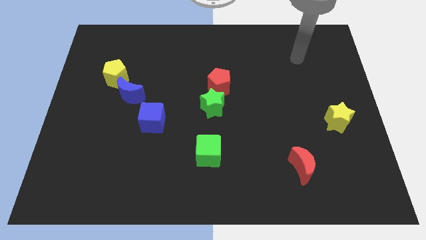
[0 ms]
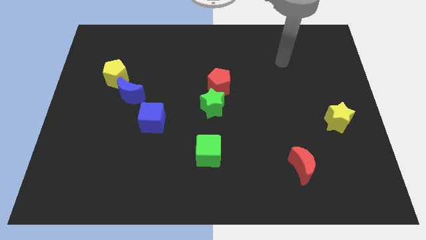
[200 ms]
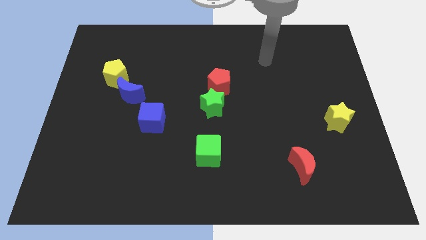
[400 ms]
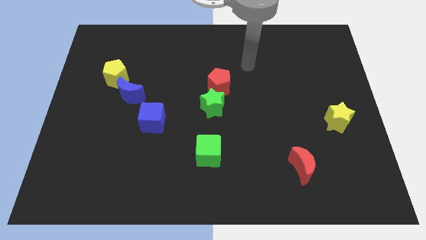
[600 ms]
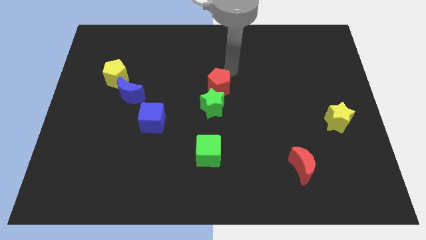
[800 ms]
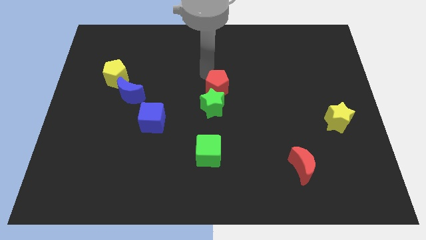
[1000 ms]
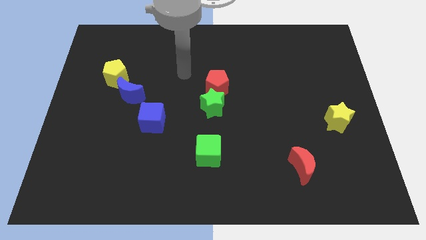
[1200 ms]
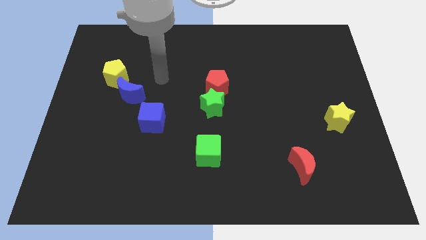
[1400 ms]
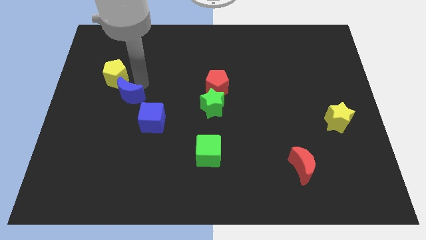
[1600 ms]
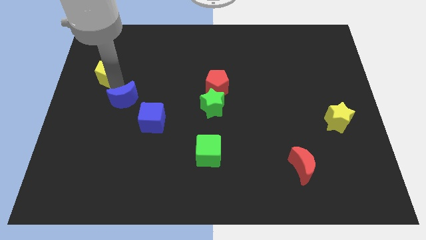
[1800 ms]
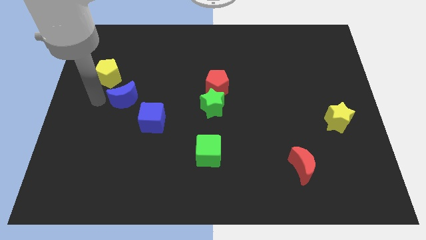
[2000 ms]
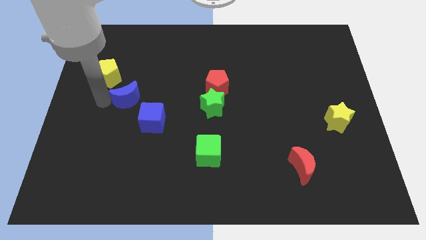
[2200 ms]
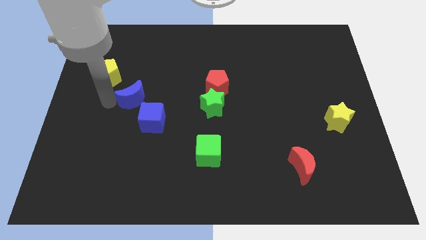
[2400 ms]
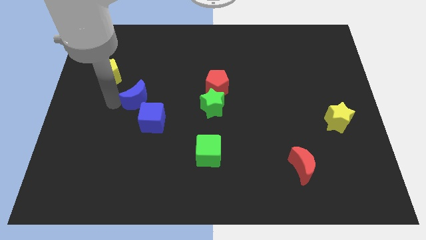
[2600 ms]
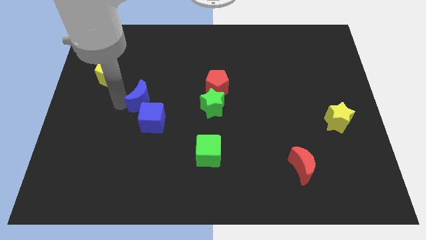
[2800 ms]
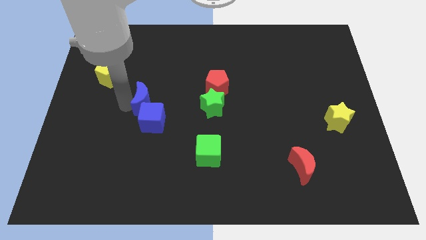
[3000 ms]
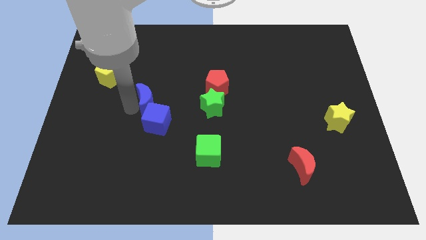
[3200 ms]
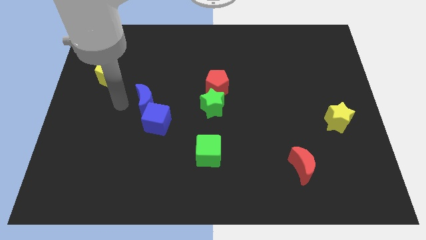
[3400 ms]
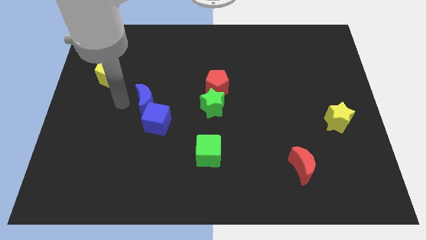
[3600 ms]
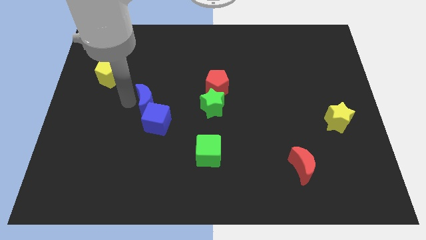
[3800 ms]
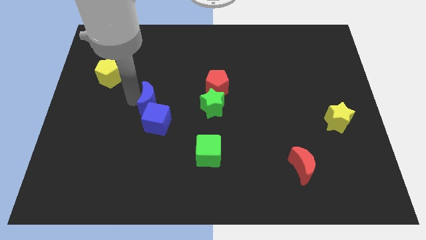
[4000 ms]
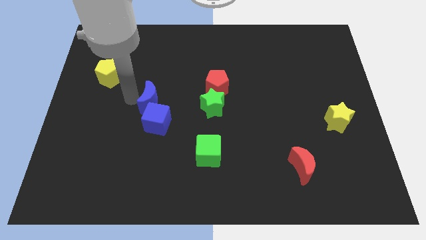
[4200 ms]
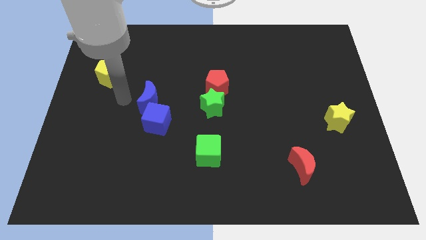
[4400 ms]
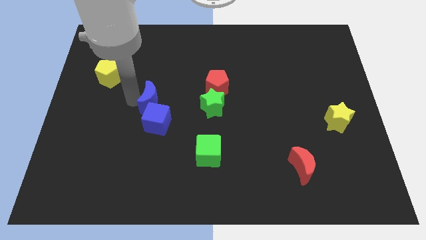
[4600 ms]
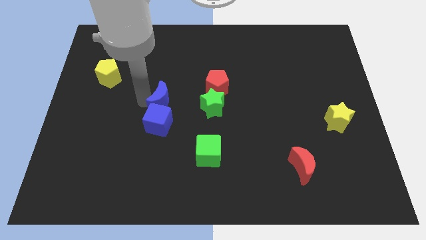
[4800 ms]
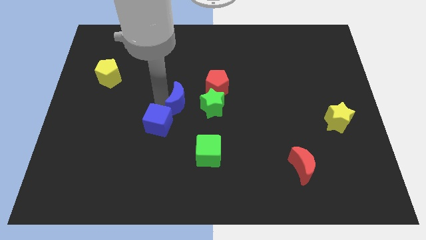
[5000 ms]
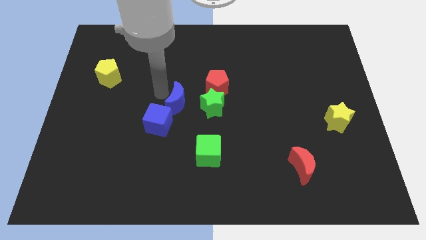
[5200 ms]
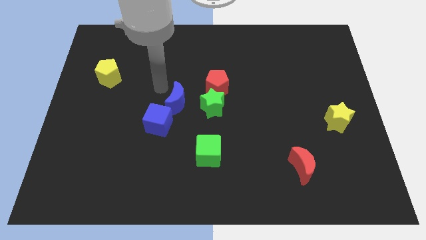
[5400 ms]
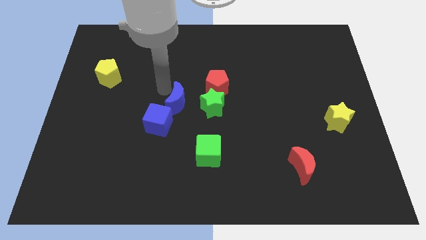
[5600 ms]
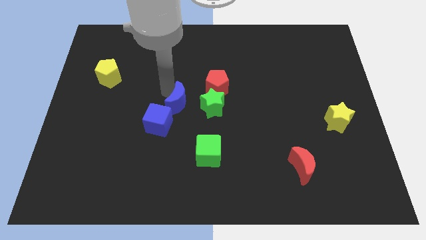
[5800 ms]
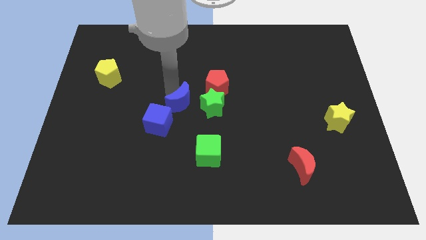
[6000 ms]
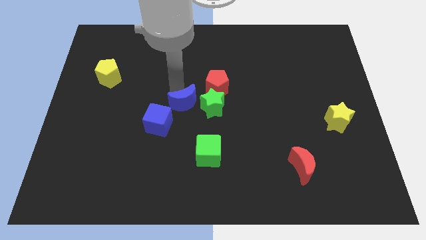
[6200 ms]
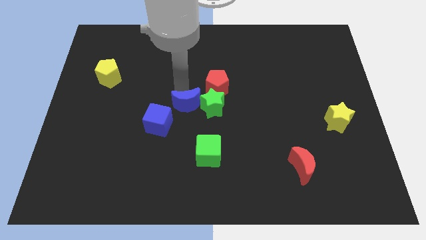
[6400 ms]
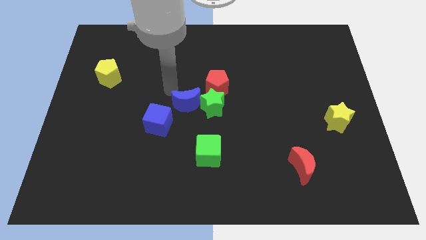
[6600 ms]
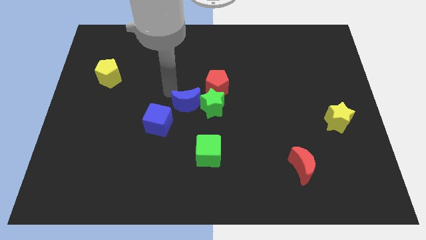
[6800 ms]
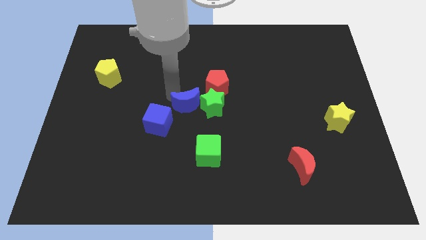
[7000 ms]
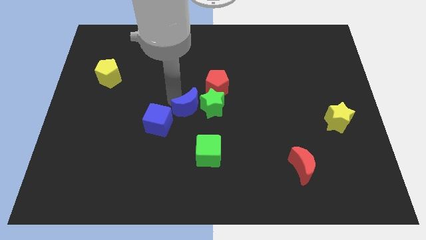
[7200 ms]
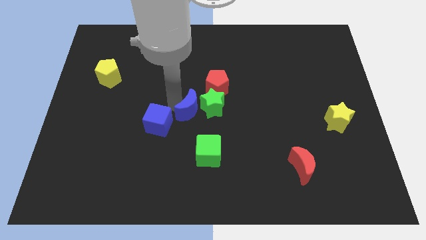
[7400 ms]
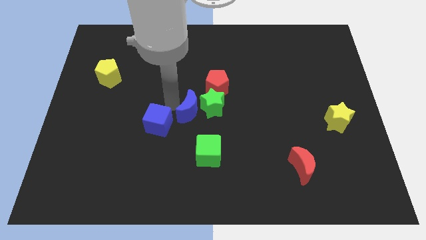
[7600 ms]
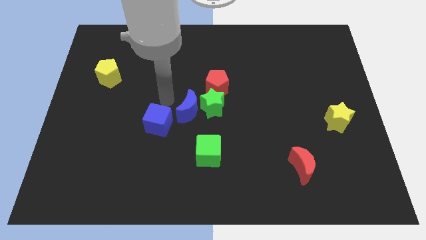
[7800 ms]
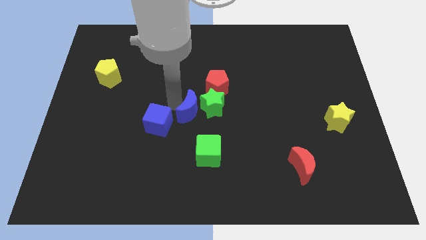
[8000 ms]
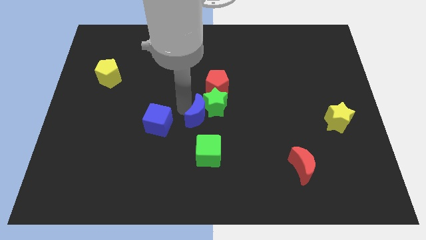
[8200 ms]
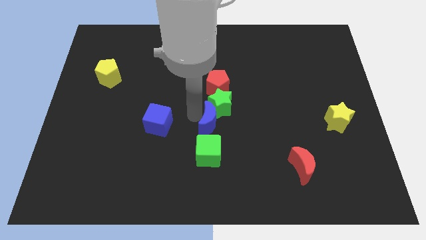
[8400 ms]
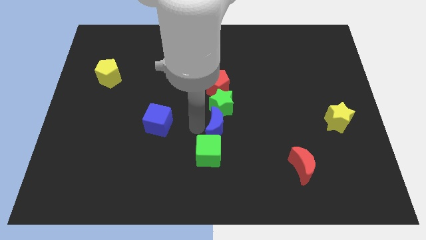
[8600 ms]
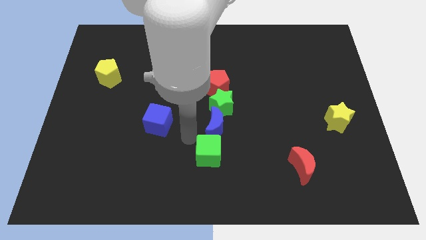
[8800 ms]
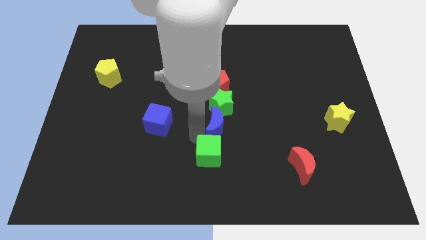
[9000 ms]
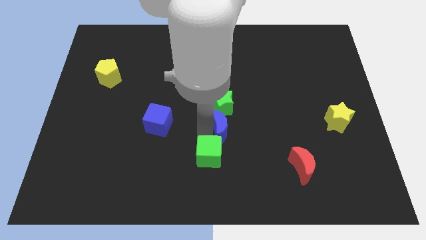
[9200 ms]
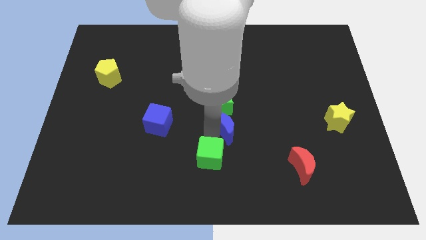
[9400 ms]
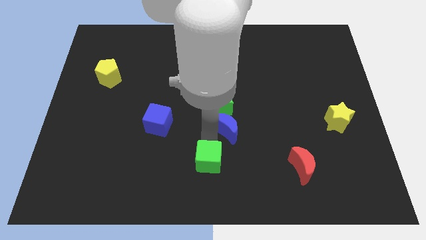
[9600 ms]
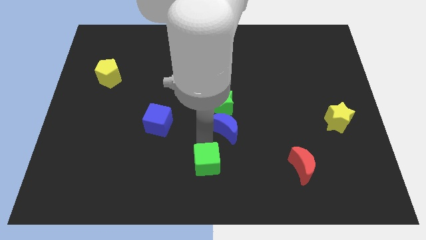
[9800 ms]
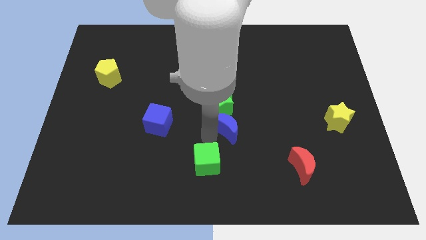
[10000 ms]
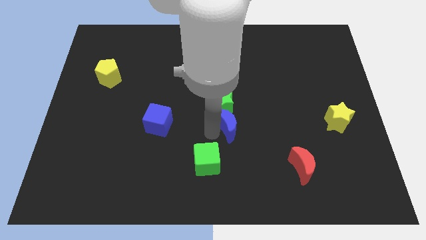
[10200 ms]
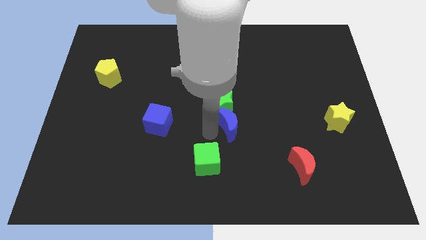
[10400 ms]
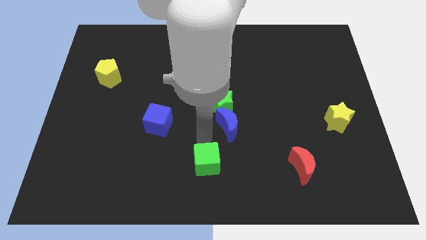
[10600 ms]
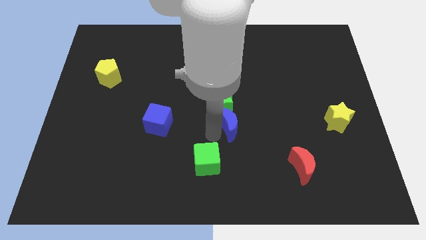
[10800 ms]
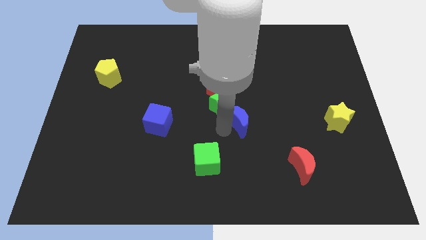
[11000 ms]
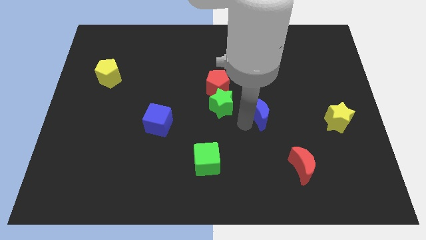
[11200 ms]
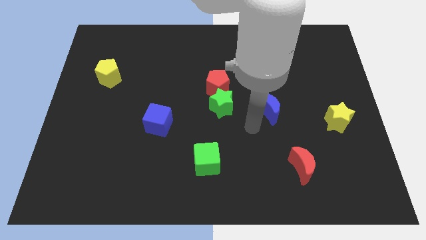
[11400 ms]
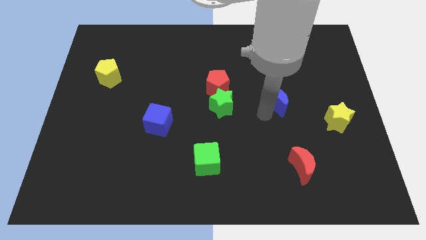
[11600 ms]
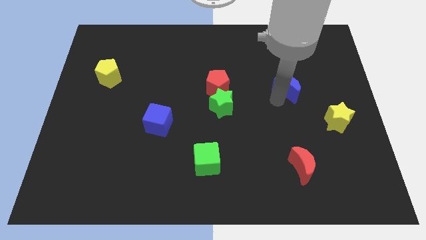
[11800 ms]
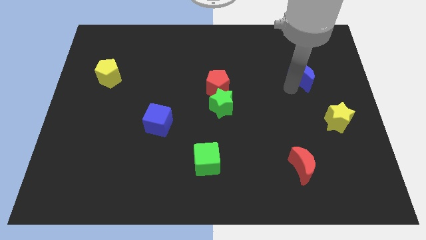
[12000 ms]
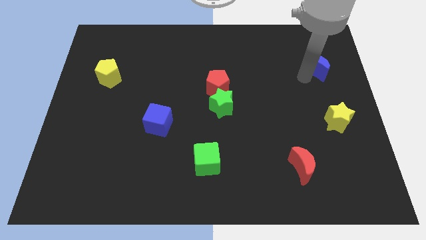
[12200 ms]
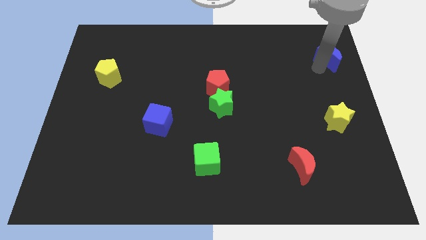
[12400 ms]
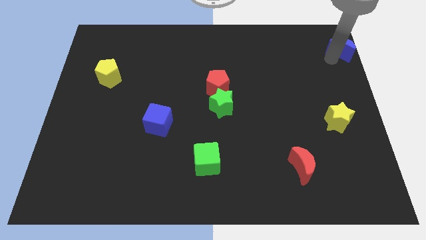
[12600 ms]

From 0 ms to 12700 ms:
slide the blue moon to the top right
